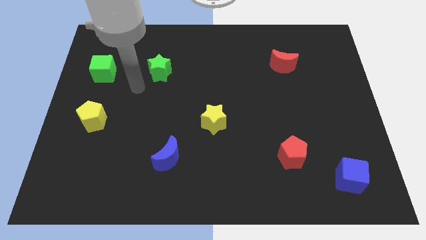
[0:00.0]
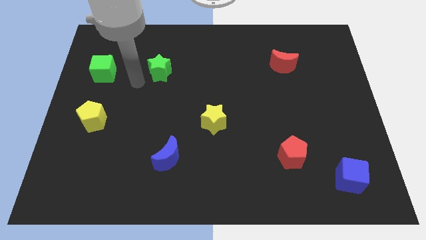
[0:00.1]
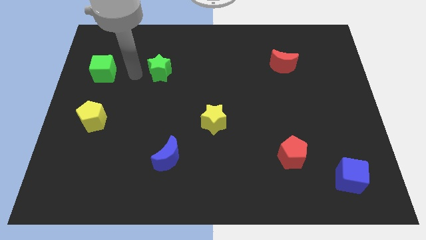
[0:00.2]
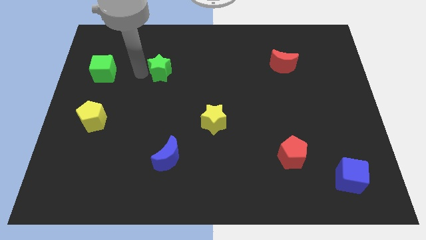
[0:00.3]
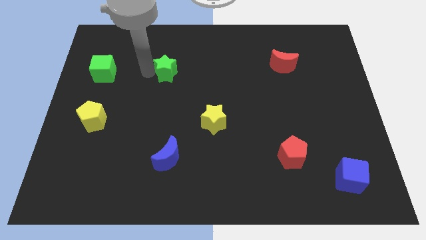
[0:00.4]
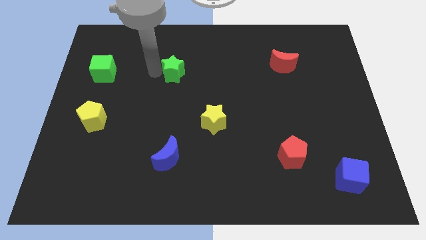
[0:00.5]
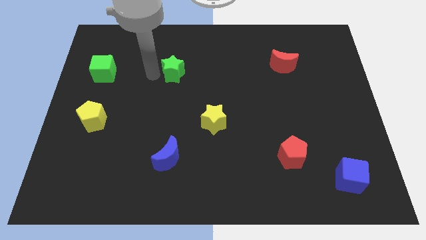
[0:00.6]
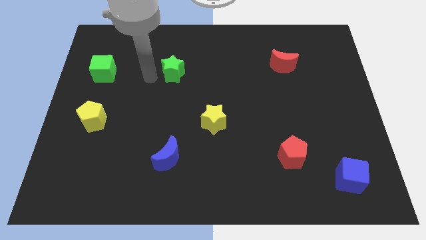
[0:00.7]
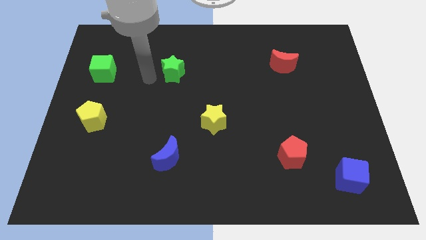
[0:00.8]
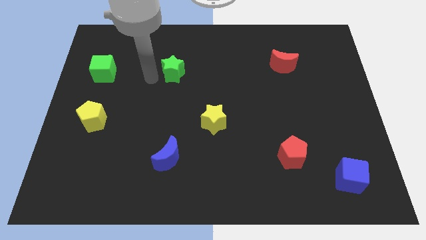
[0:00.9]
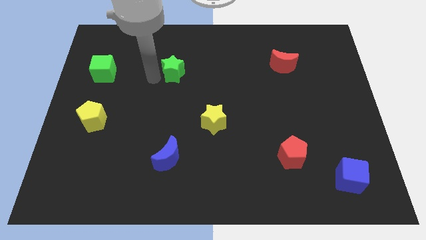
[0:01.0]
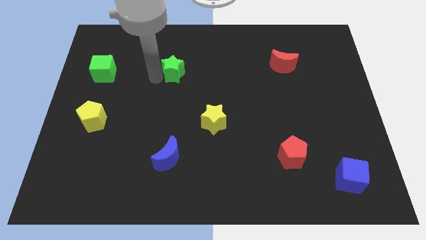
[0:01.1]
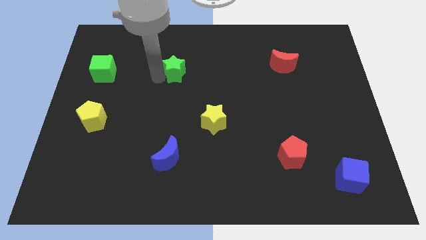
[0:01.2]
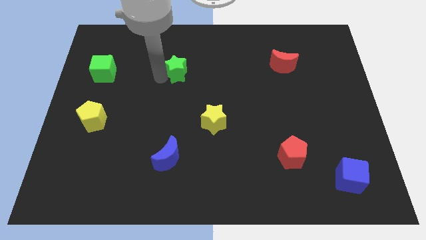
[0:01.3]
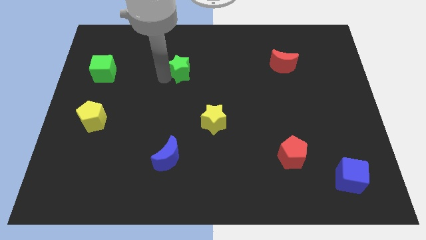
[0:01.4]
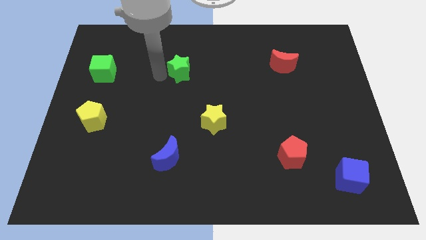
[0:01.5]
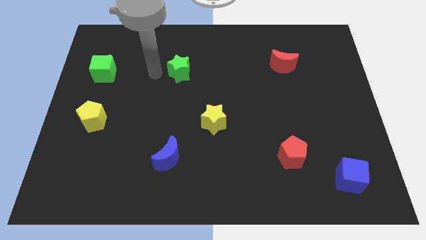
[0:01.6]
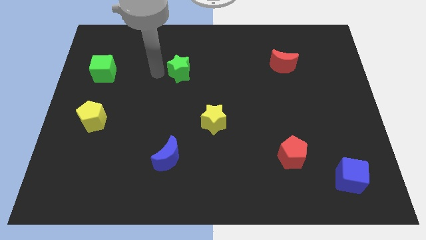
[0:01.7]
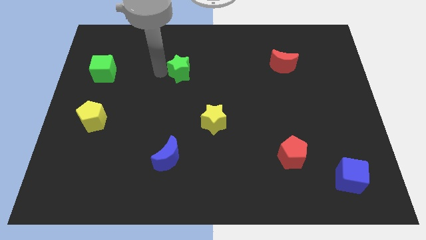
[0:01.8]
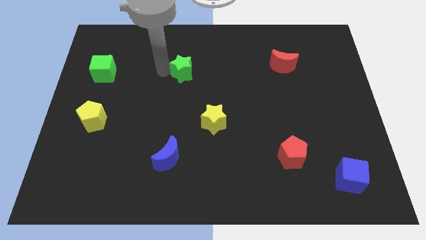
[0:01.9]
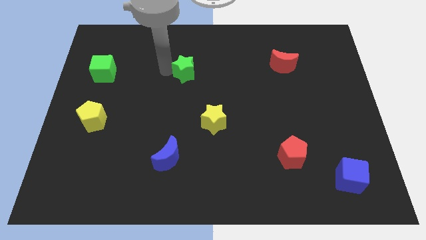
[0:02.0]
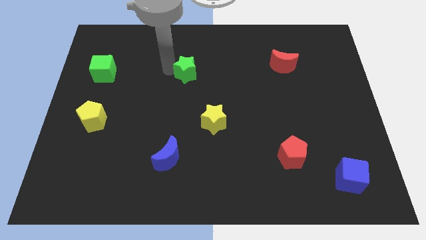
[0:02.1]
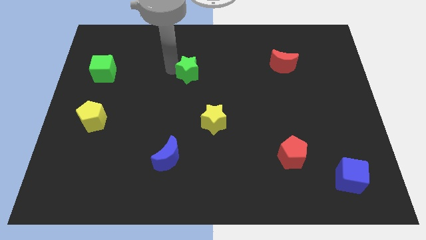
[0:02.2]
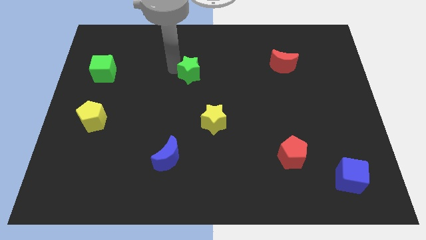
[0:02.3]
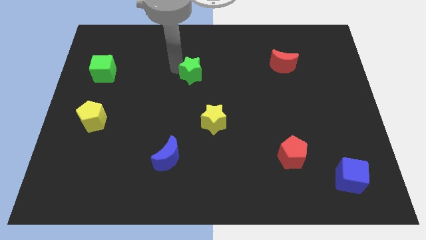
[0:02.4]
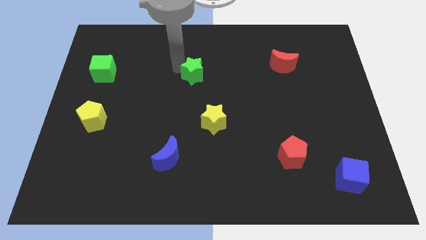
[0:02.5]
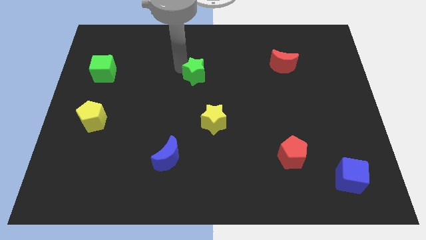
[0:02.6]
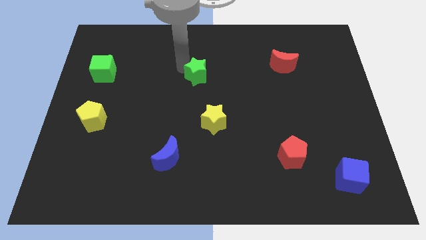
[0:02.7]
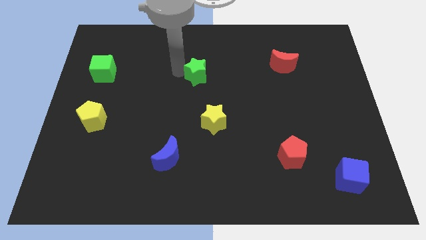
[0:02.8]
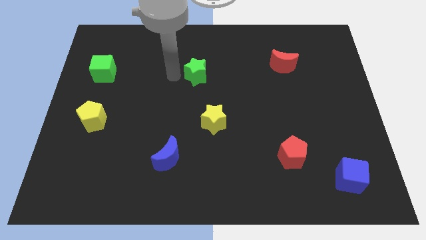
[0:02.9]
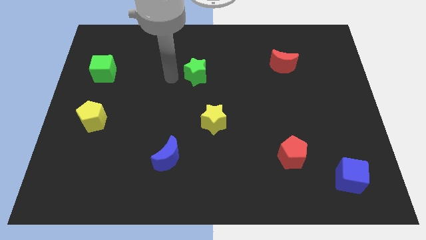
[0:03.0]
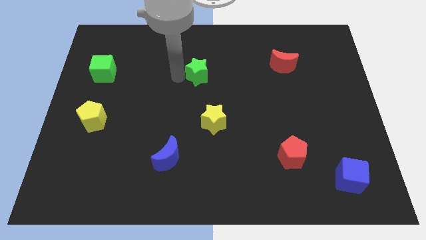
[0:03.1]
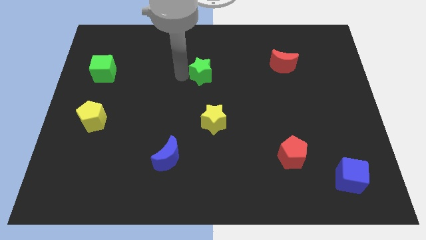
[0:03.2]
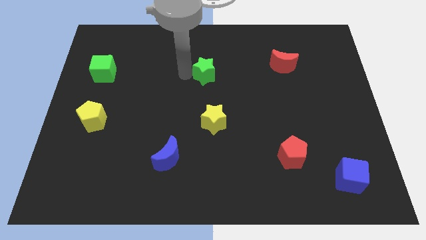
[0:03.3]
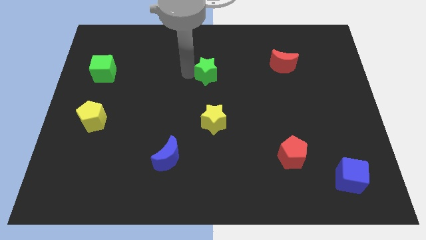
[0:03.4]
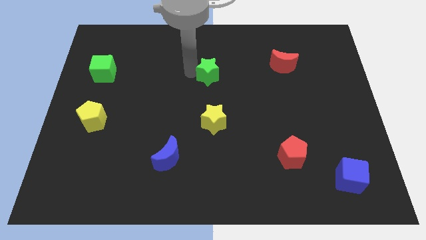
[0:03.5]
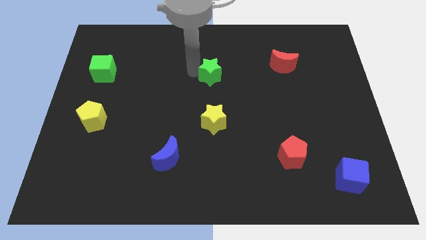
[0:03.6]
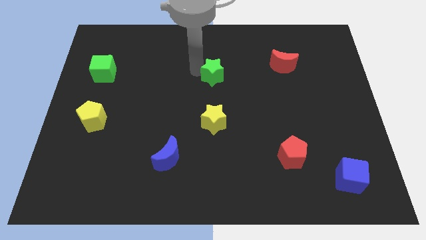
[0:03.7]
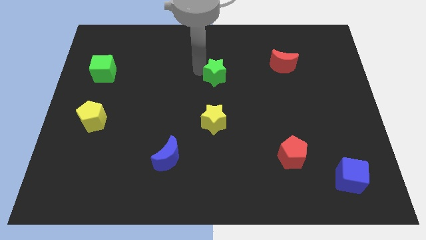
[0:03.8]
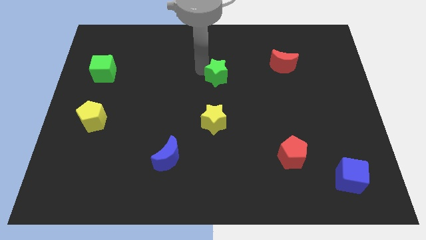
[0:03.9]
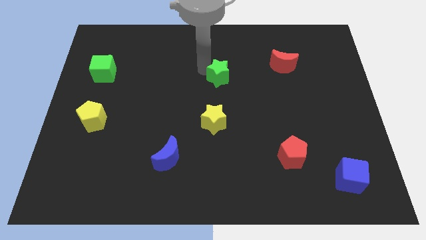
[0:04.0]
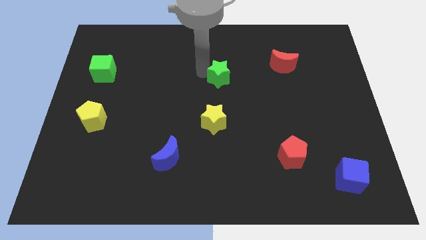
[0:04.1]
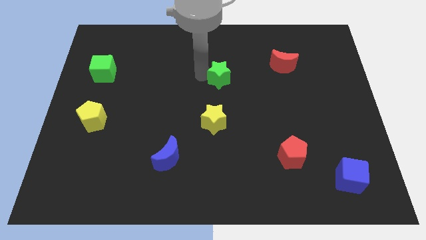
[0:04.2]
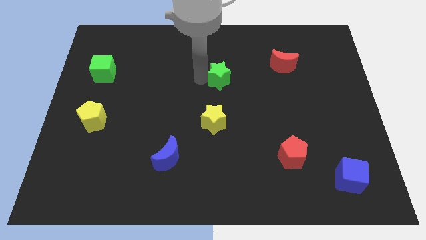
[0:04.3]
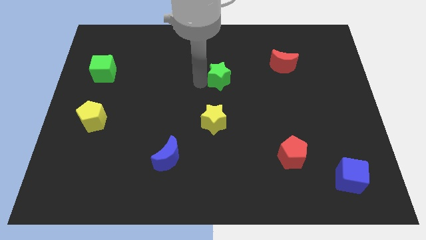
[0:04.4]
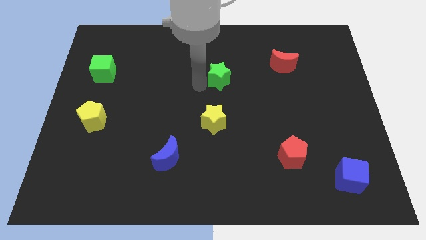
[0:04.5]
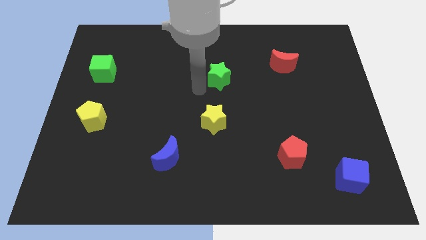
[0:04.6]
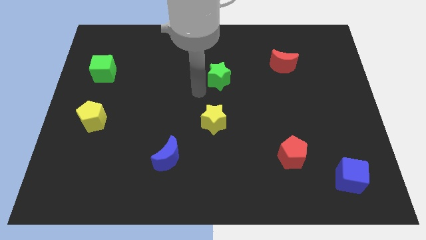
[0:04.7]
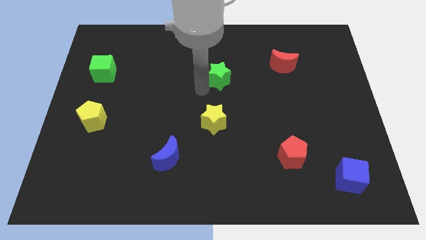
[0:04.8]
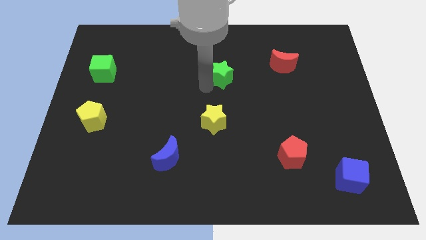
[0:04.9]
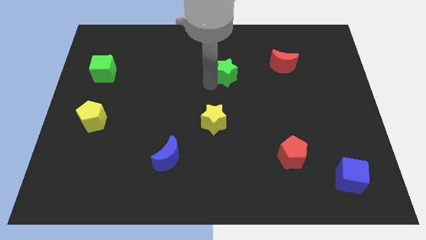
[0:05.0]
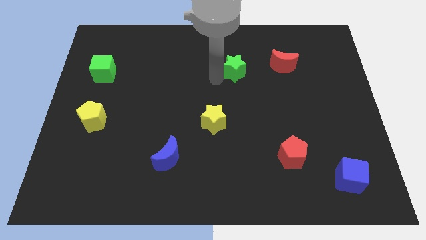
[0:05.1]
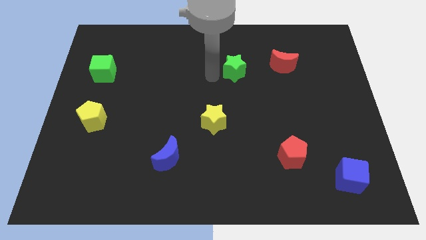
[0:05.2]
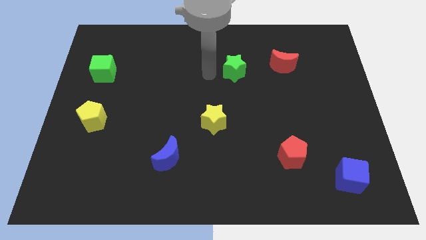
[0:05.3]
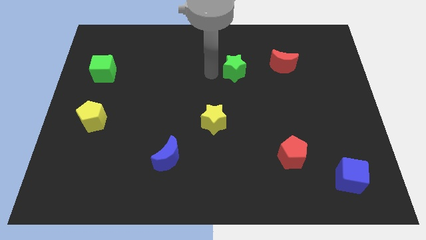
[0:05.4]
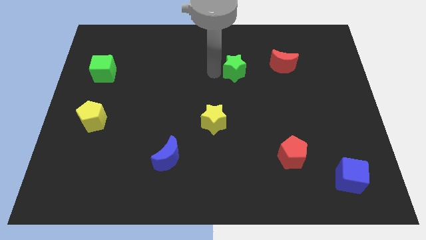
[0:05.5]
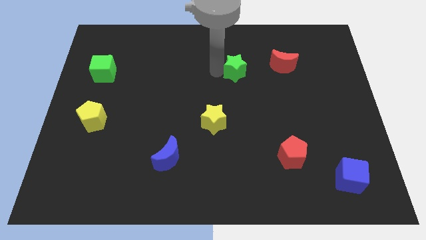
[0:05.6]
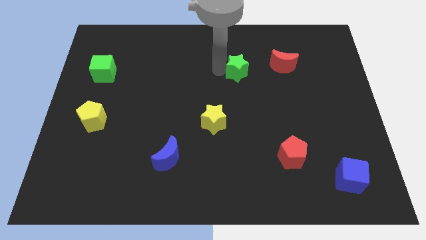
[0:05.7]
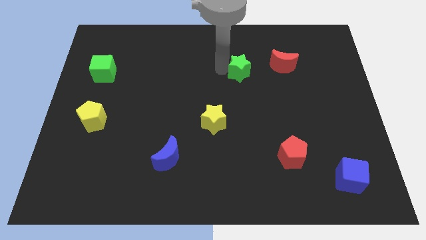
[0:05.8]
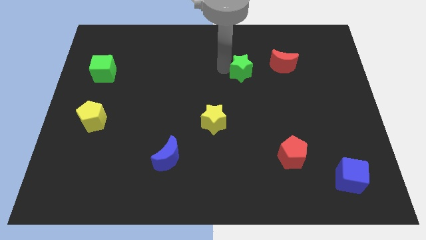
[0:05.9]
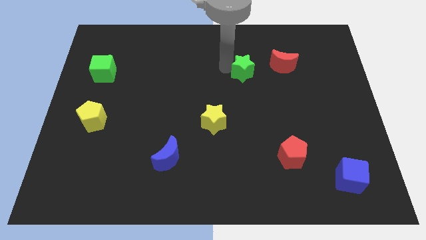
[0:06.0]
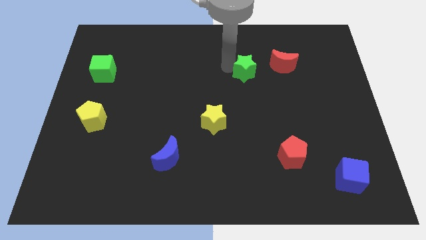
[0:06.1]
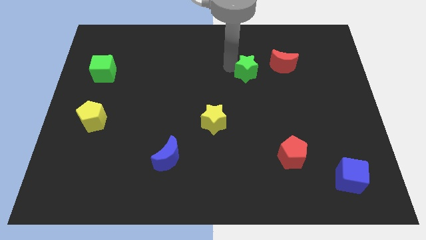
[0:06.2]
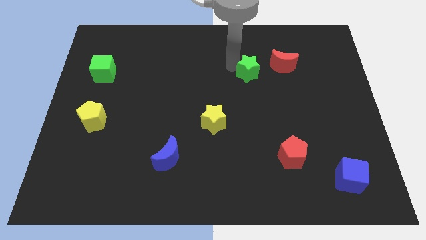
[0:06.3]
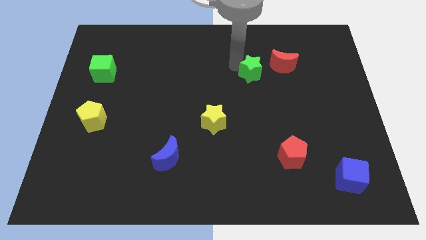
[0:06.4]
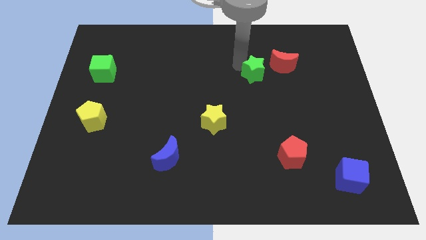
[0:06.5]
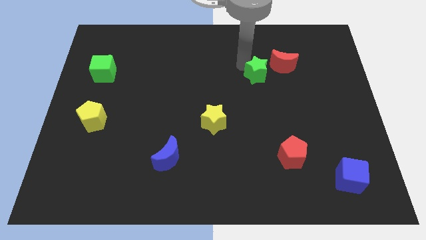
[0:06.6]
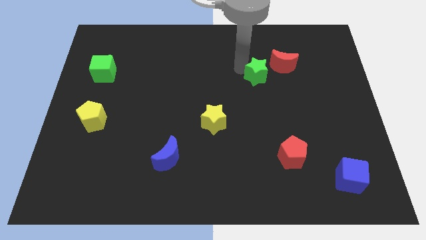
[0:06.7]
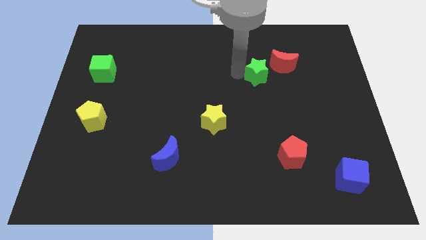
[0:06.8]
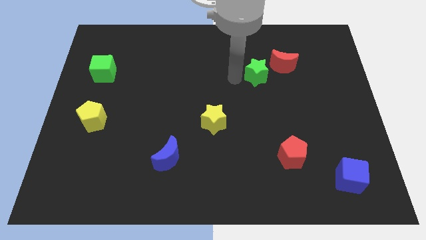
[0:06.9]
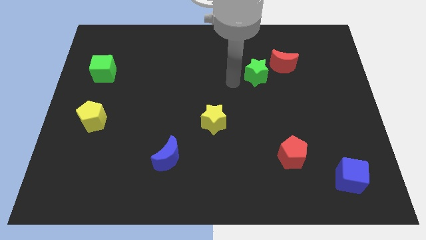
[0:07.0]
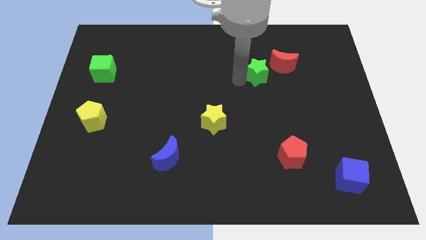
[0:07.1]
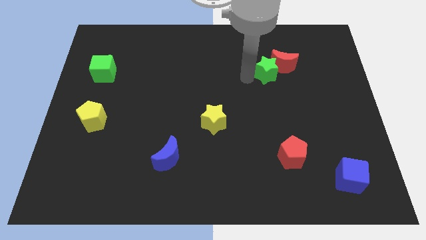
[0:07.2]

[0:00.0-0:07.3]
put the green star towards the red moon
